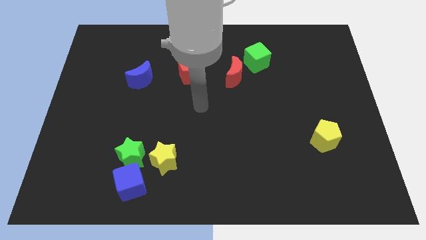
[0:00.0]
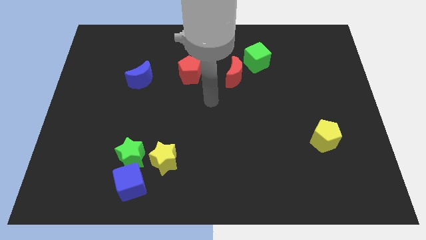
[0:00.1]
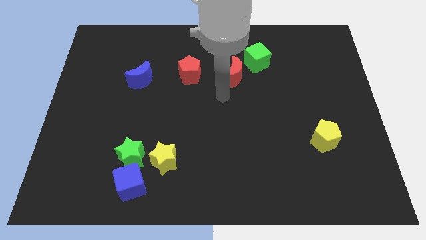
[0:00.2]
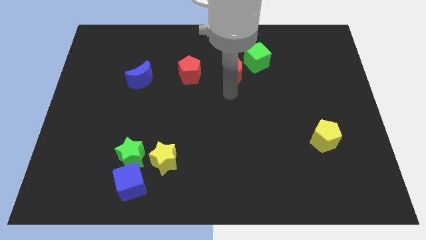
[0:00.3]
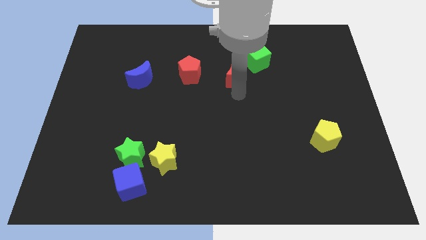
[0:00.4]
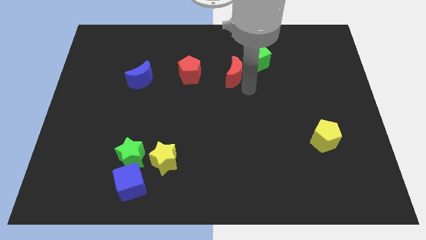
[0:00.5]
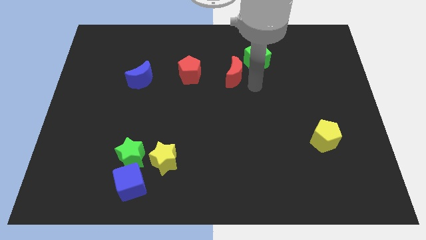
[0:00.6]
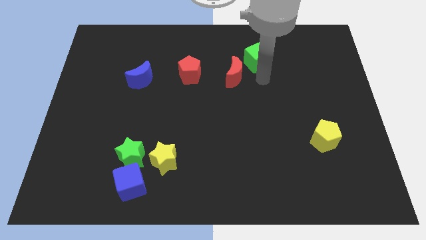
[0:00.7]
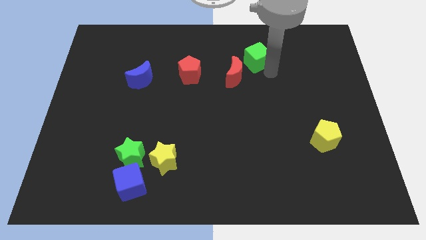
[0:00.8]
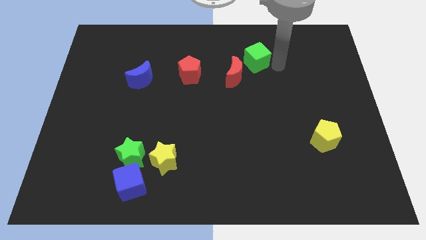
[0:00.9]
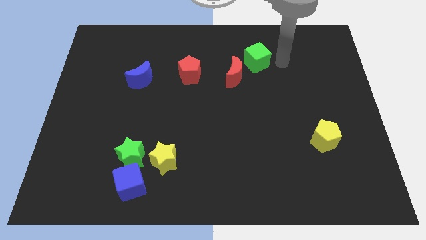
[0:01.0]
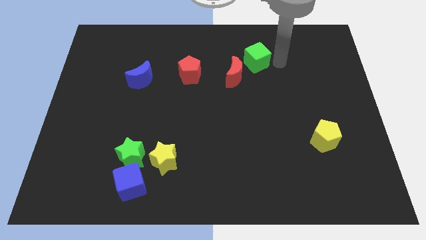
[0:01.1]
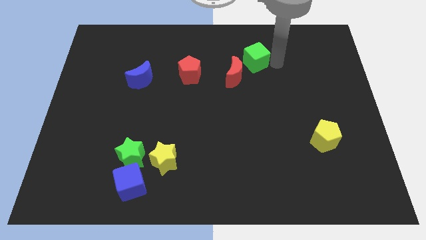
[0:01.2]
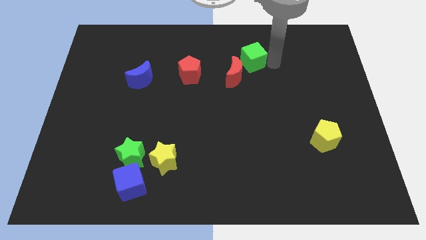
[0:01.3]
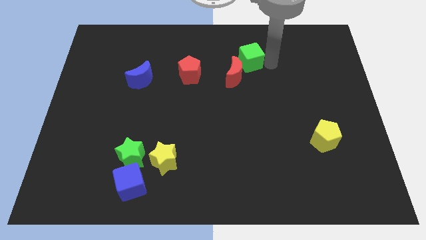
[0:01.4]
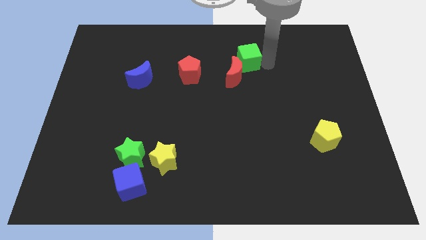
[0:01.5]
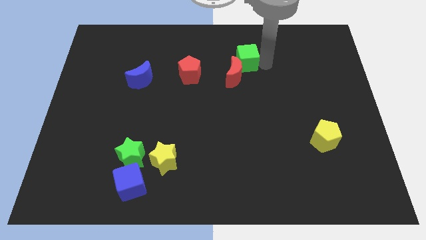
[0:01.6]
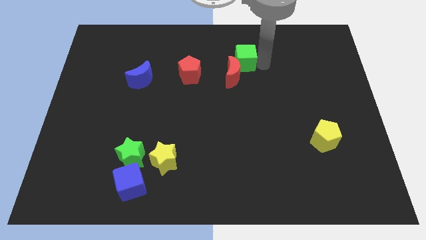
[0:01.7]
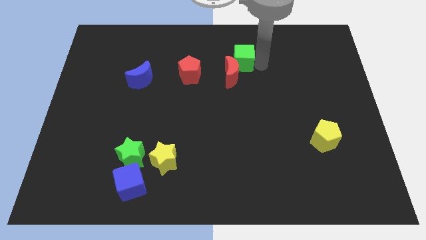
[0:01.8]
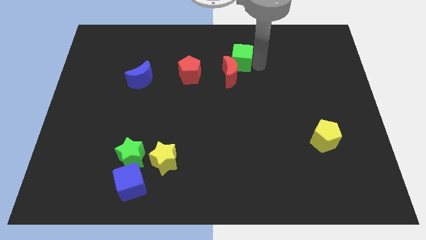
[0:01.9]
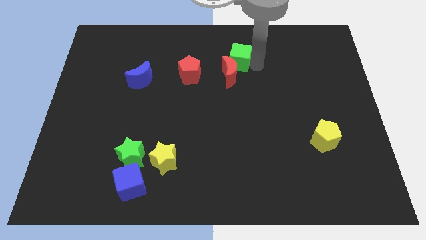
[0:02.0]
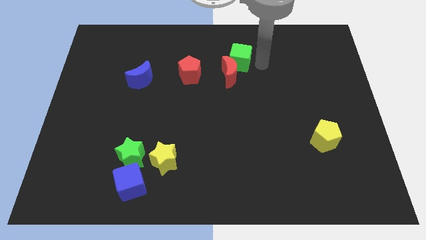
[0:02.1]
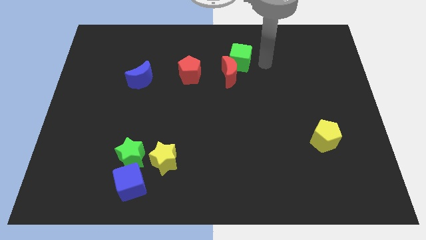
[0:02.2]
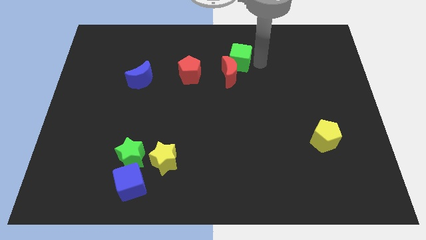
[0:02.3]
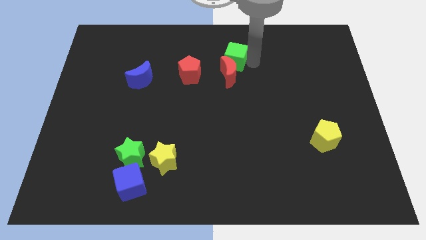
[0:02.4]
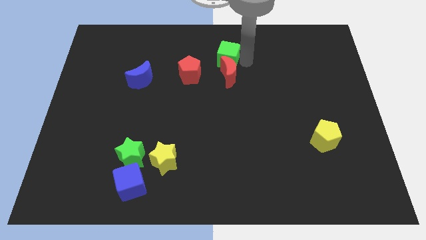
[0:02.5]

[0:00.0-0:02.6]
slide the green cube somewhat left

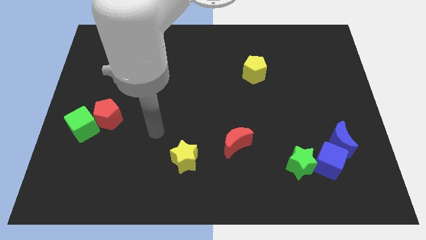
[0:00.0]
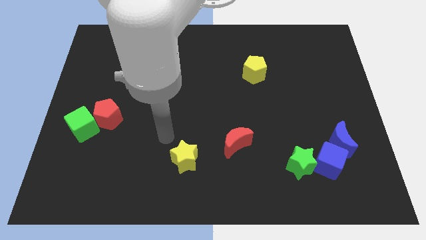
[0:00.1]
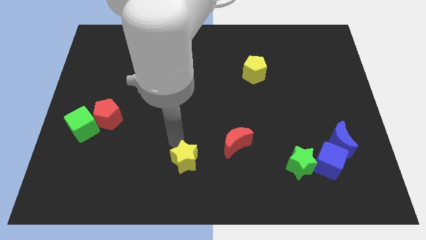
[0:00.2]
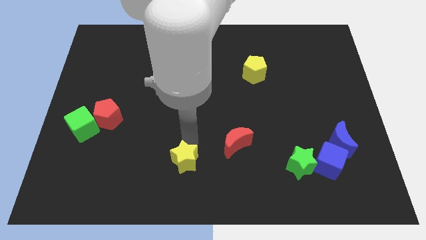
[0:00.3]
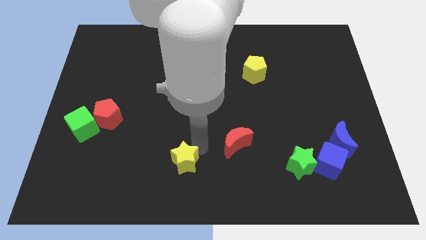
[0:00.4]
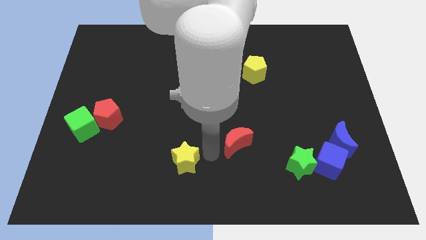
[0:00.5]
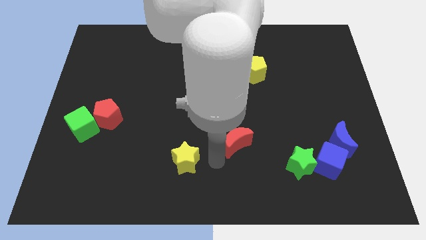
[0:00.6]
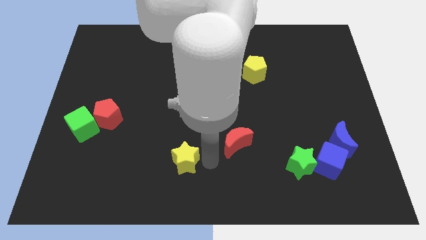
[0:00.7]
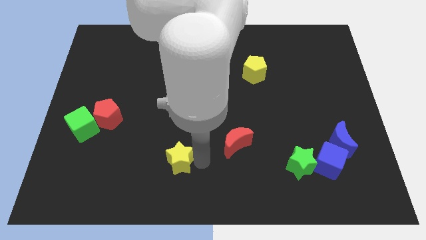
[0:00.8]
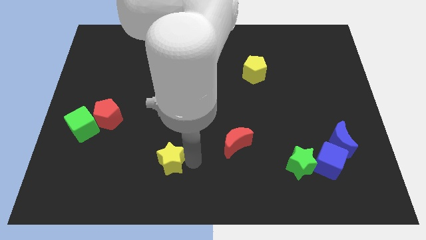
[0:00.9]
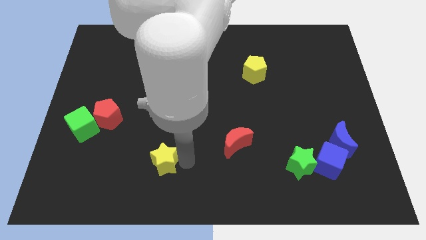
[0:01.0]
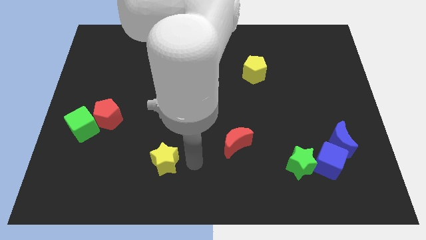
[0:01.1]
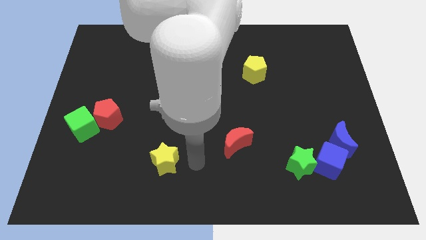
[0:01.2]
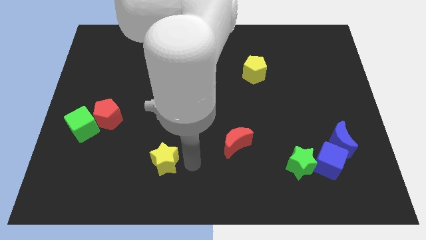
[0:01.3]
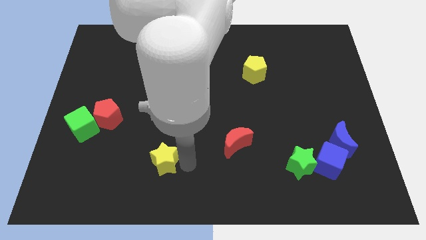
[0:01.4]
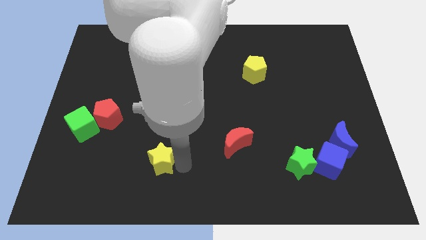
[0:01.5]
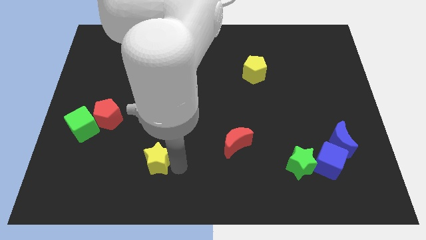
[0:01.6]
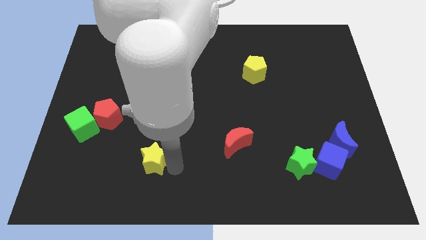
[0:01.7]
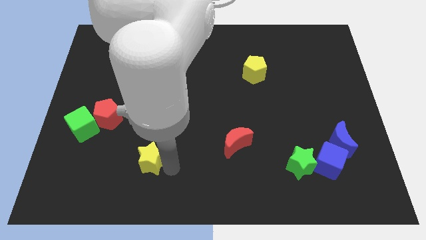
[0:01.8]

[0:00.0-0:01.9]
slide the yellow star to the left a bit

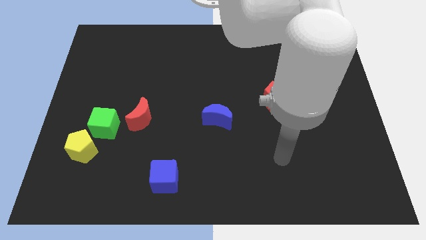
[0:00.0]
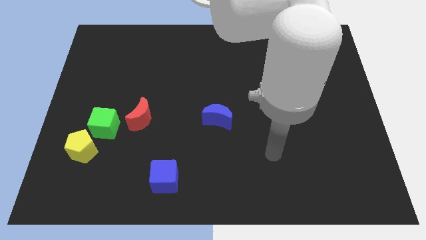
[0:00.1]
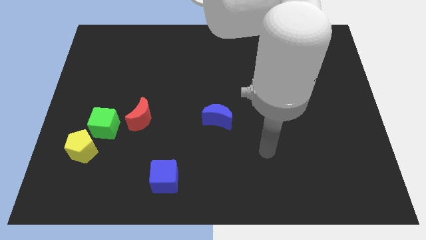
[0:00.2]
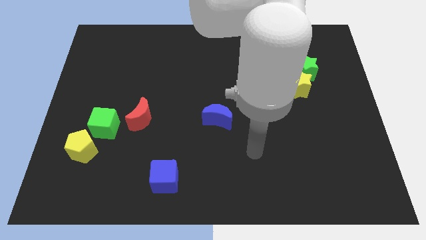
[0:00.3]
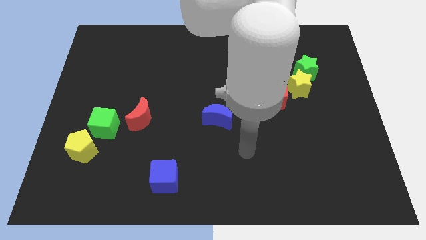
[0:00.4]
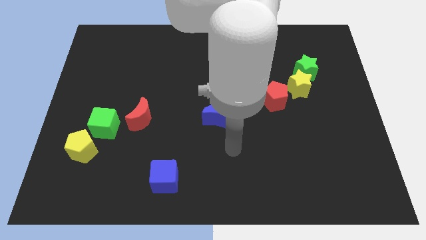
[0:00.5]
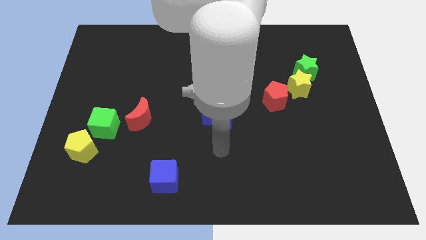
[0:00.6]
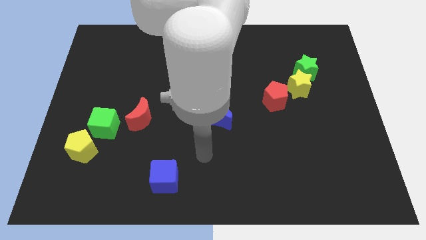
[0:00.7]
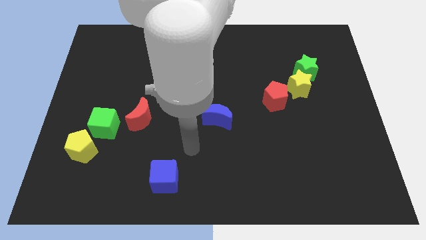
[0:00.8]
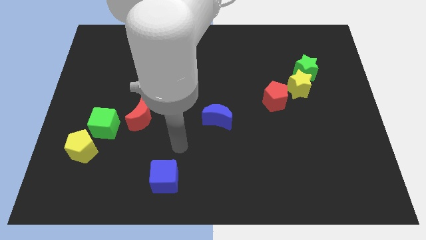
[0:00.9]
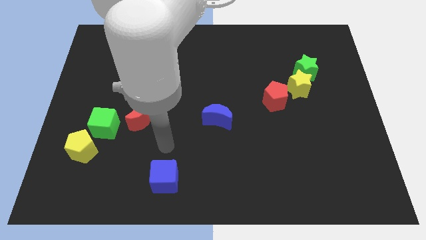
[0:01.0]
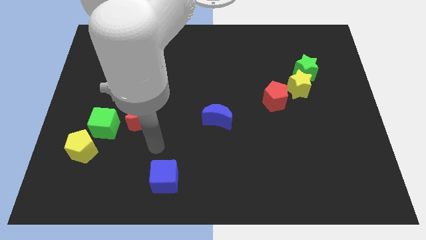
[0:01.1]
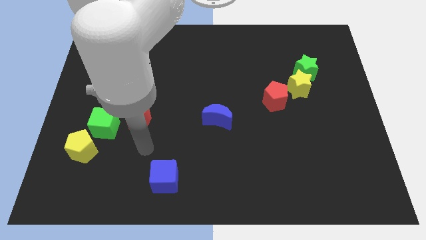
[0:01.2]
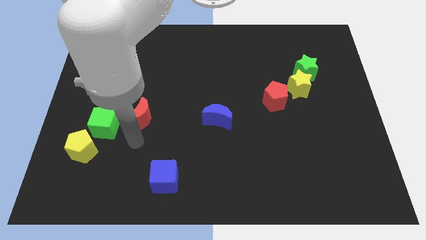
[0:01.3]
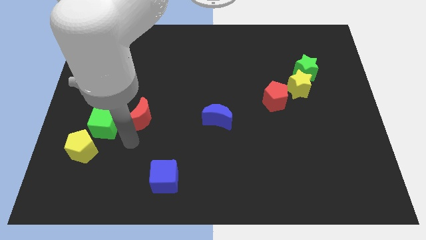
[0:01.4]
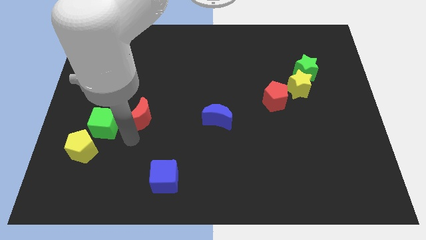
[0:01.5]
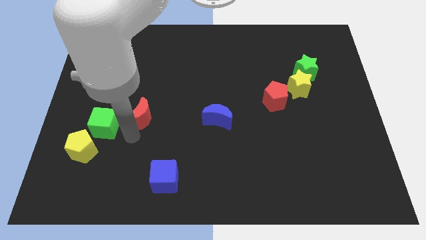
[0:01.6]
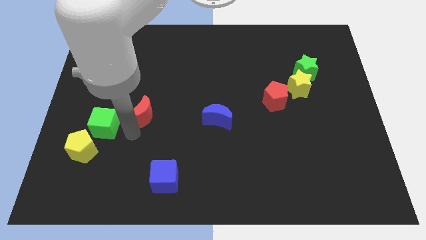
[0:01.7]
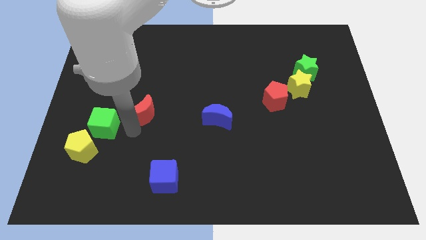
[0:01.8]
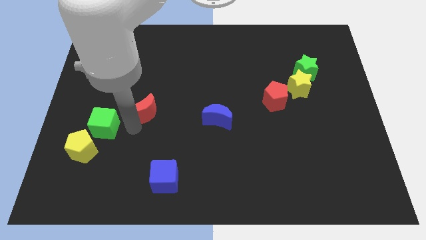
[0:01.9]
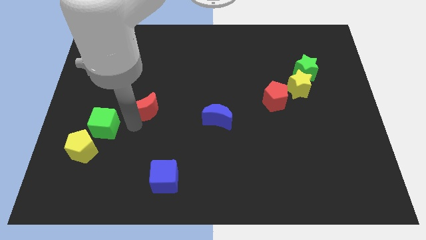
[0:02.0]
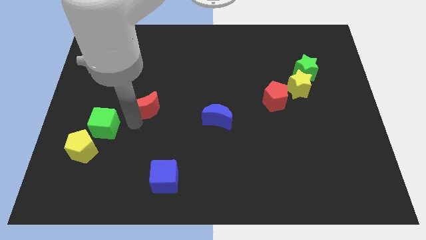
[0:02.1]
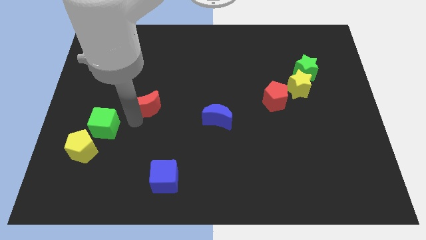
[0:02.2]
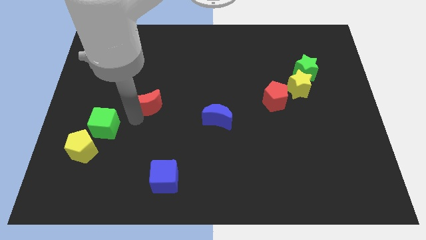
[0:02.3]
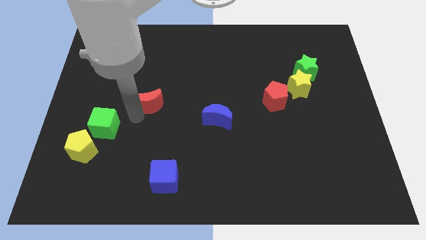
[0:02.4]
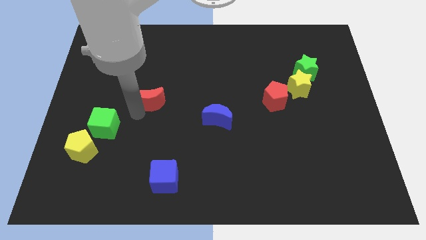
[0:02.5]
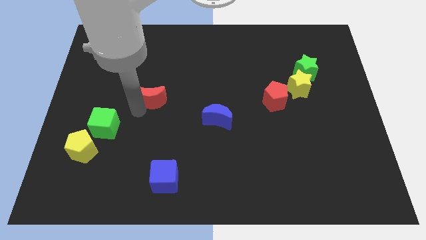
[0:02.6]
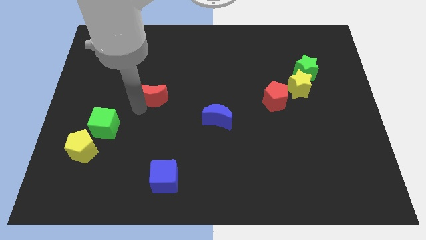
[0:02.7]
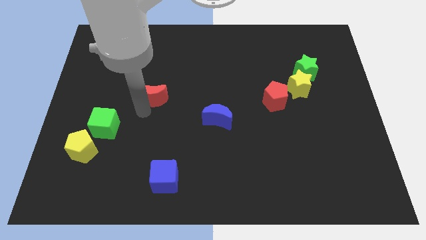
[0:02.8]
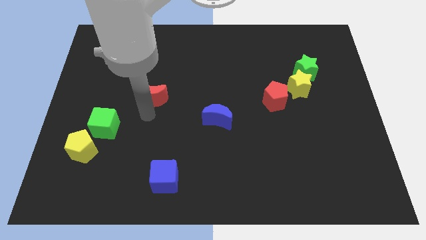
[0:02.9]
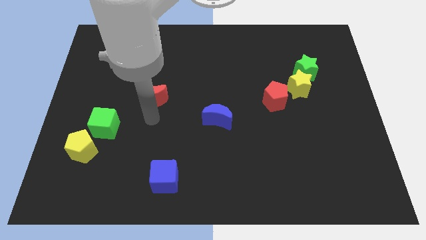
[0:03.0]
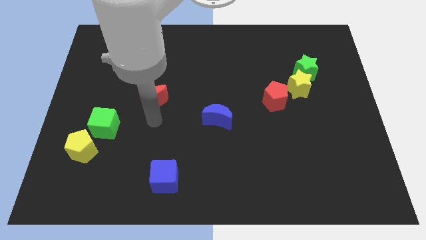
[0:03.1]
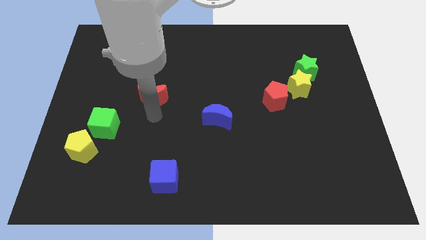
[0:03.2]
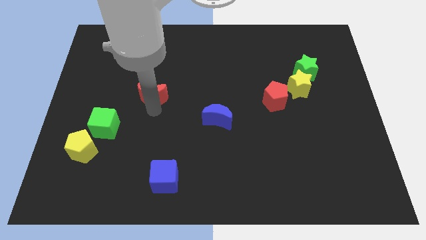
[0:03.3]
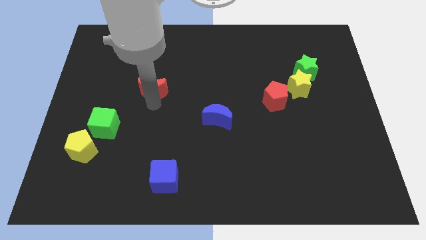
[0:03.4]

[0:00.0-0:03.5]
slightly push the red moon upwards

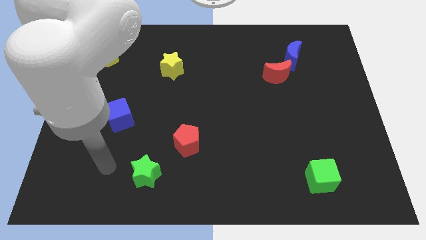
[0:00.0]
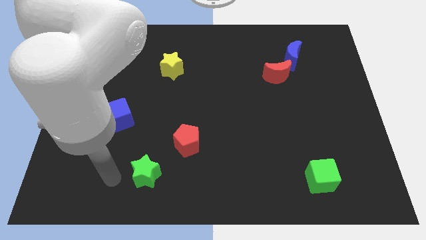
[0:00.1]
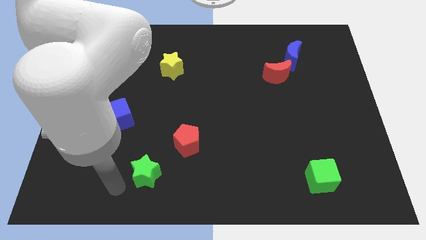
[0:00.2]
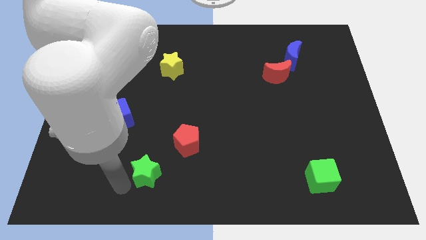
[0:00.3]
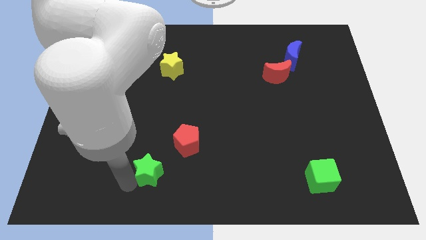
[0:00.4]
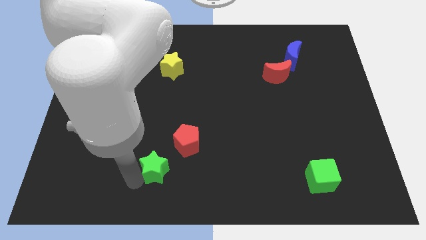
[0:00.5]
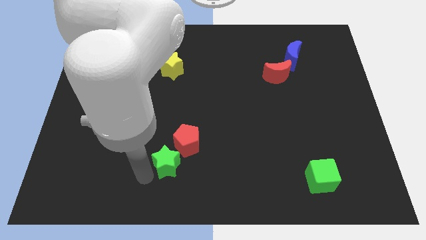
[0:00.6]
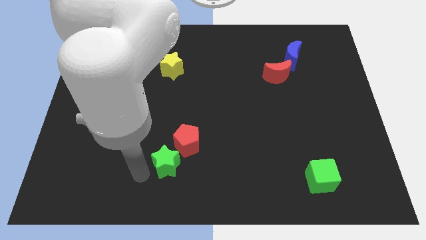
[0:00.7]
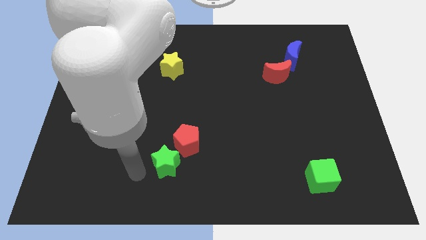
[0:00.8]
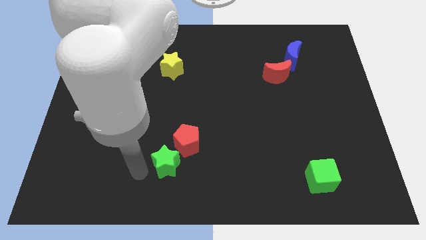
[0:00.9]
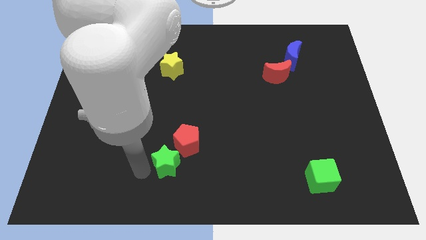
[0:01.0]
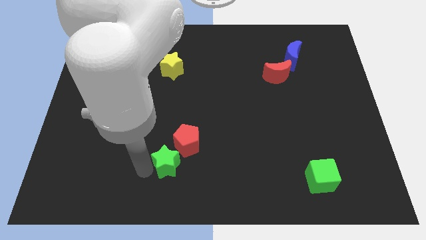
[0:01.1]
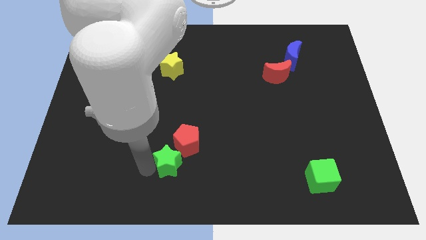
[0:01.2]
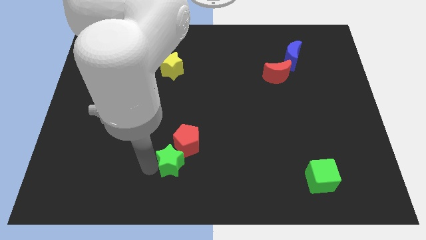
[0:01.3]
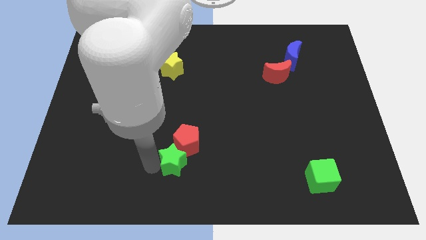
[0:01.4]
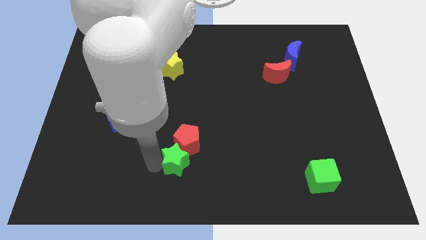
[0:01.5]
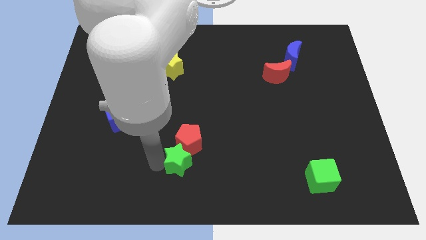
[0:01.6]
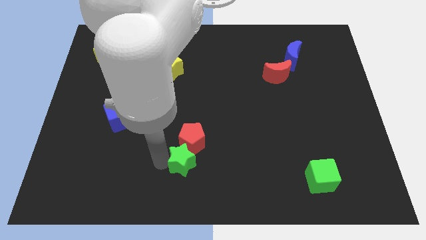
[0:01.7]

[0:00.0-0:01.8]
slightly push the green star diagonally upwards and right
